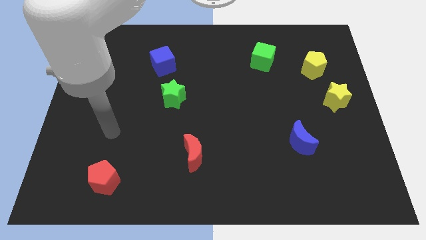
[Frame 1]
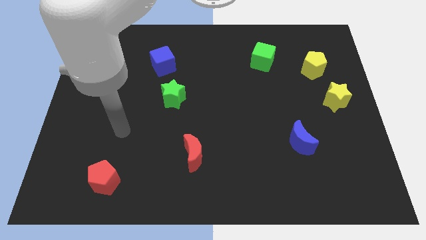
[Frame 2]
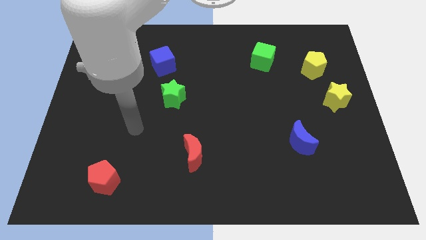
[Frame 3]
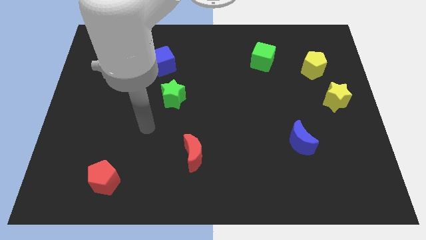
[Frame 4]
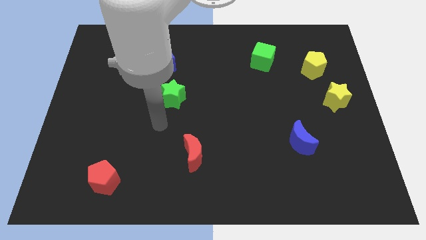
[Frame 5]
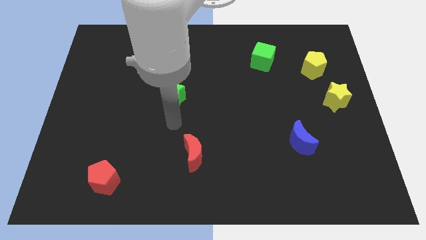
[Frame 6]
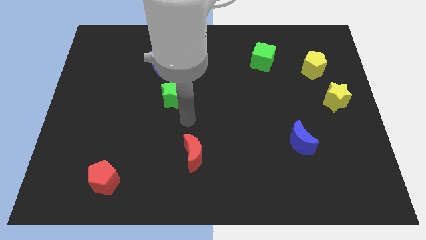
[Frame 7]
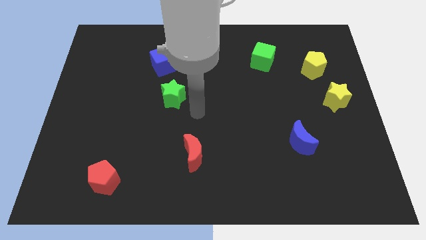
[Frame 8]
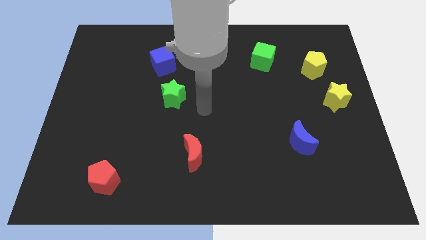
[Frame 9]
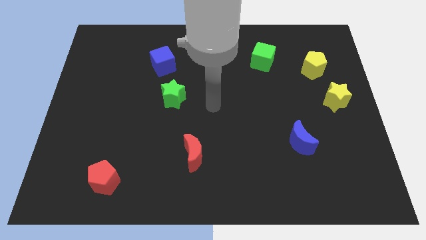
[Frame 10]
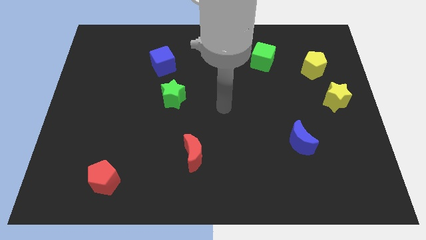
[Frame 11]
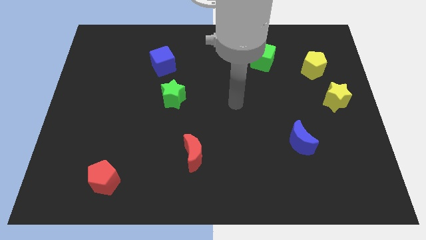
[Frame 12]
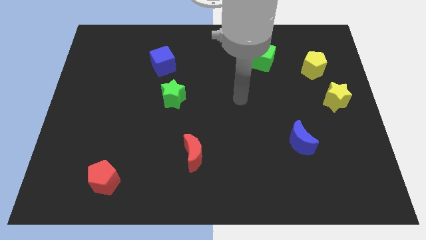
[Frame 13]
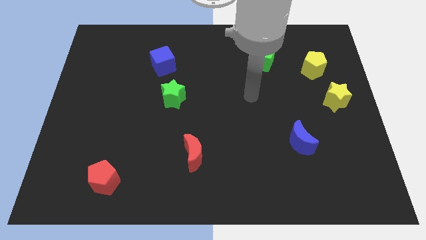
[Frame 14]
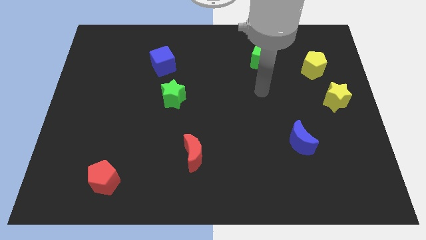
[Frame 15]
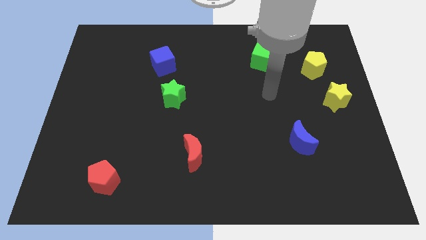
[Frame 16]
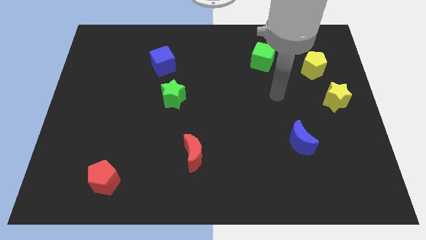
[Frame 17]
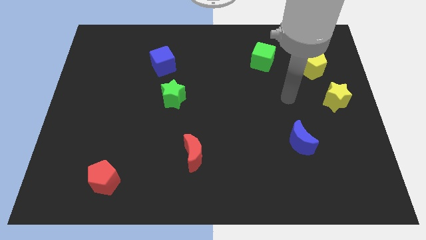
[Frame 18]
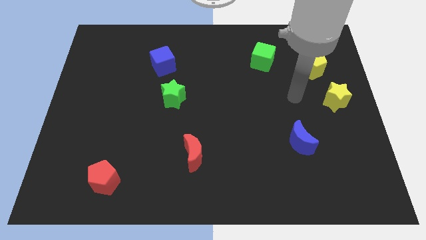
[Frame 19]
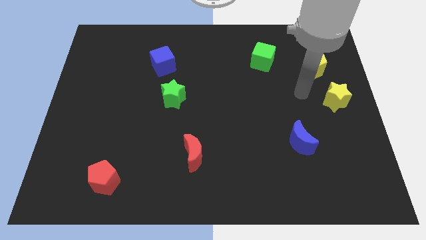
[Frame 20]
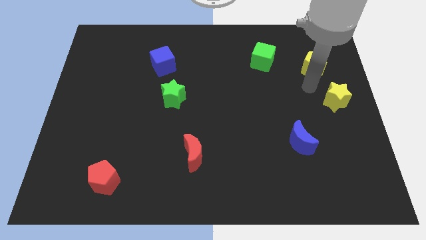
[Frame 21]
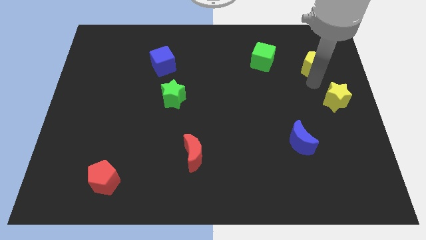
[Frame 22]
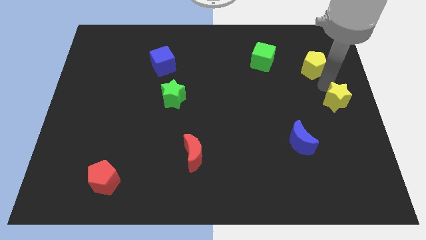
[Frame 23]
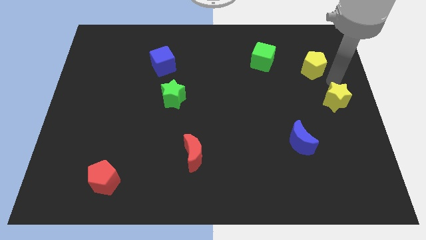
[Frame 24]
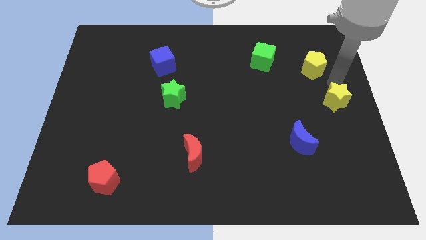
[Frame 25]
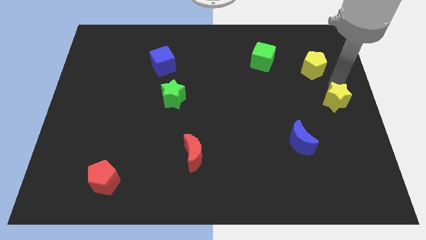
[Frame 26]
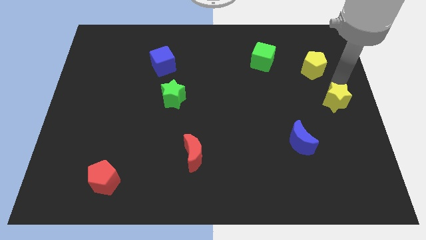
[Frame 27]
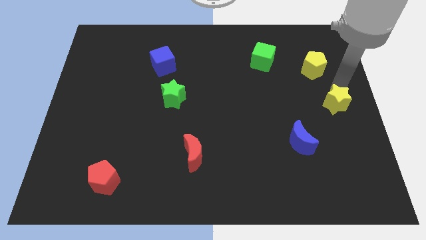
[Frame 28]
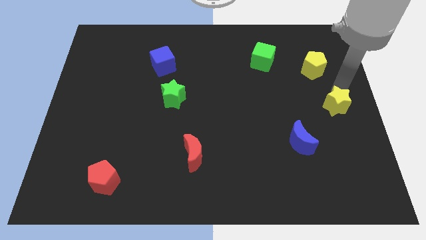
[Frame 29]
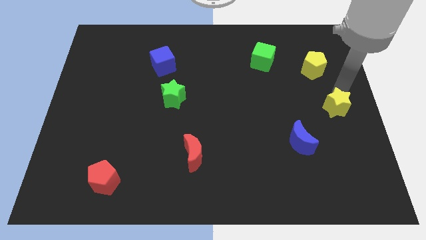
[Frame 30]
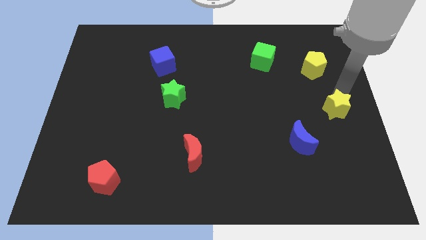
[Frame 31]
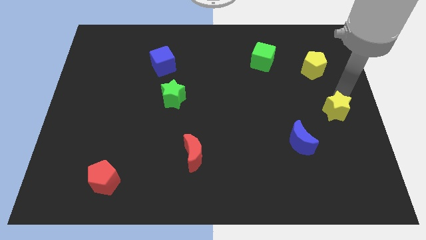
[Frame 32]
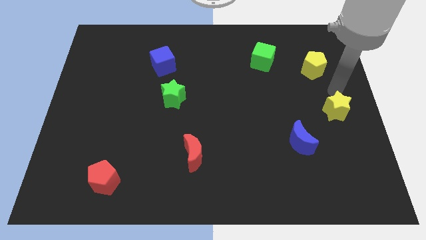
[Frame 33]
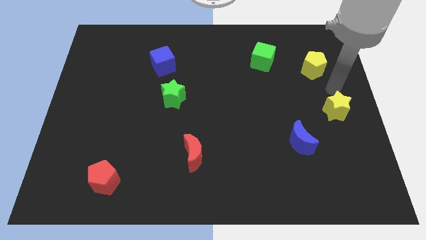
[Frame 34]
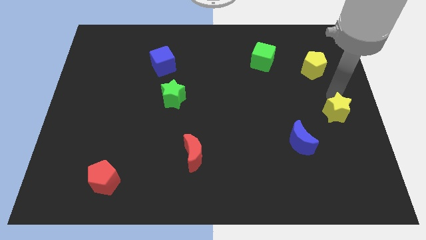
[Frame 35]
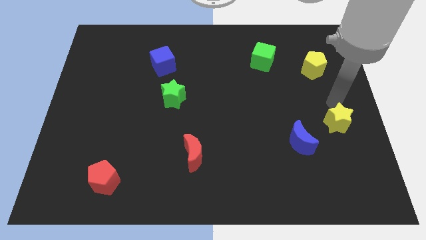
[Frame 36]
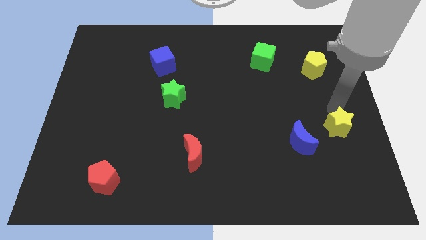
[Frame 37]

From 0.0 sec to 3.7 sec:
slightly slide the yellow star down

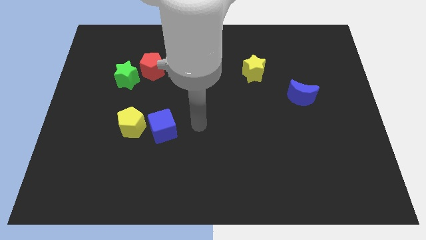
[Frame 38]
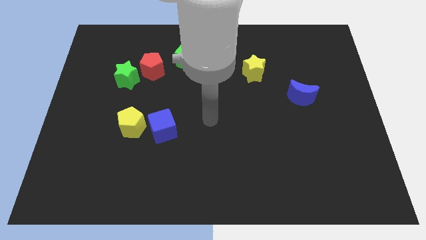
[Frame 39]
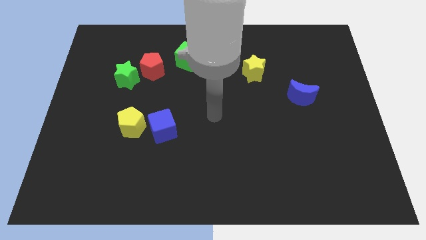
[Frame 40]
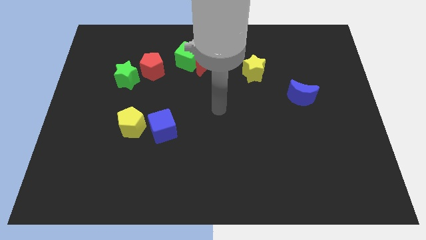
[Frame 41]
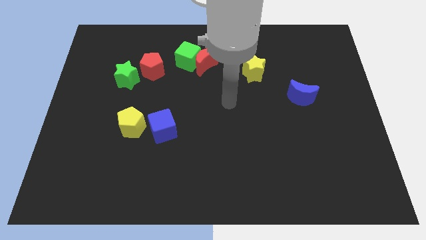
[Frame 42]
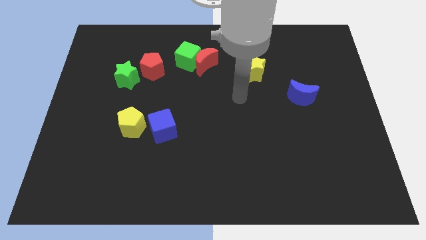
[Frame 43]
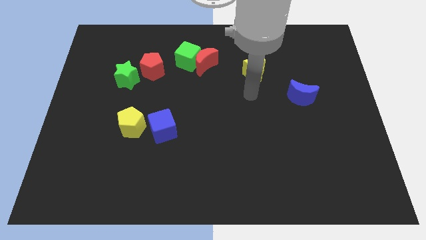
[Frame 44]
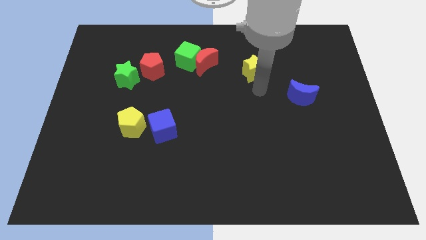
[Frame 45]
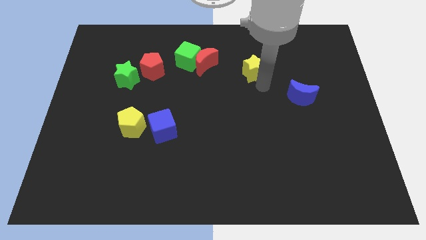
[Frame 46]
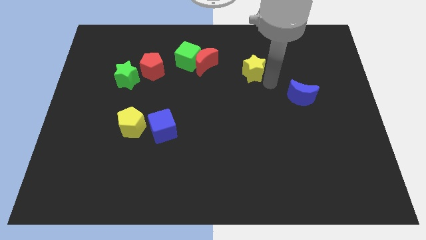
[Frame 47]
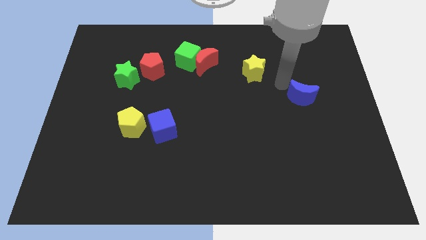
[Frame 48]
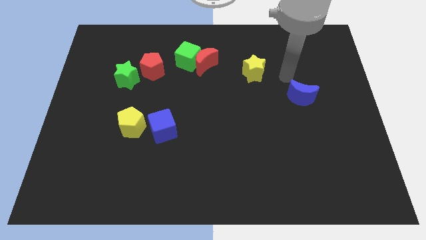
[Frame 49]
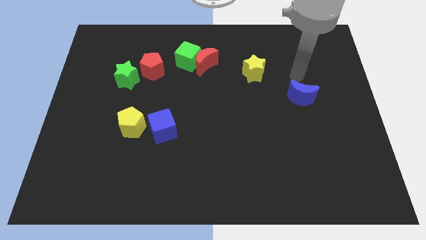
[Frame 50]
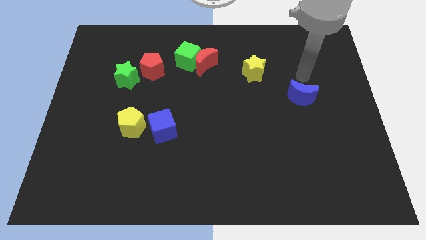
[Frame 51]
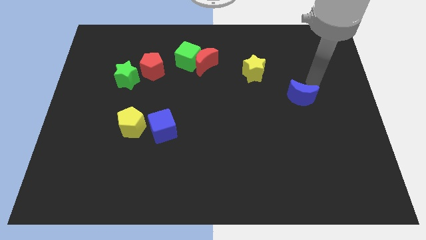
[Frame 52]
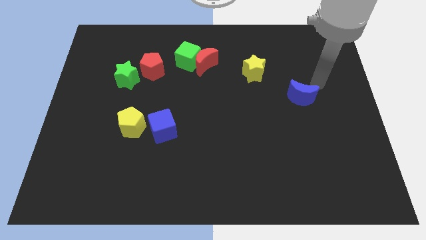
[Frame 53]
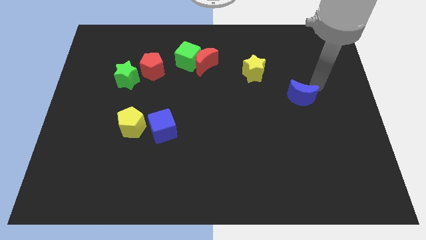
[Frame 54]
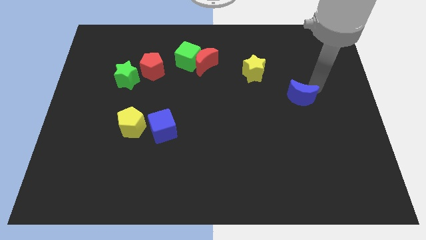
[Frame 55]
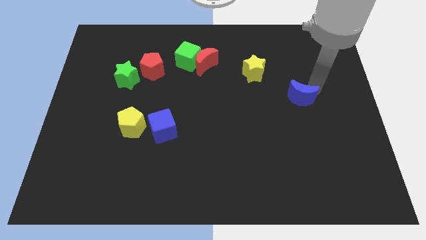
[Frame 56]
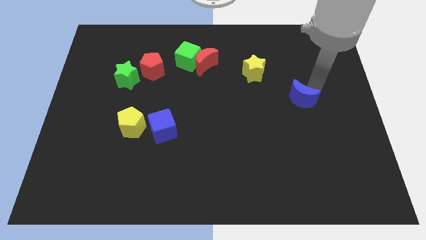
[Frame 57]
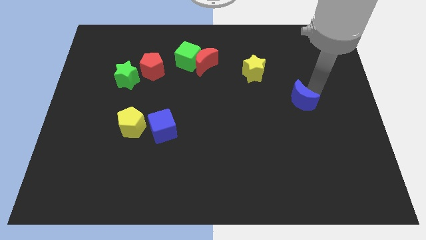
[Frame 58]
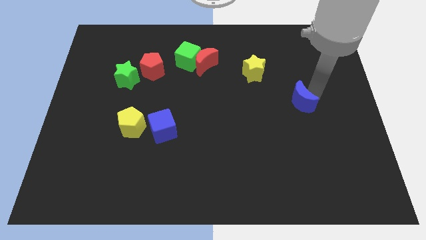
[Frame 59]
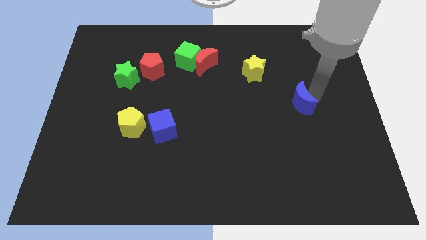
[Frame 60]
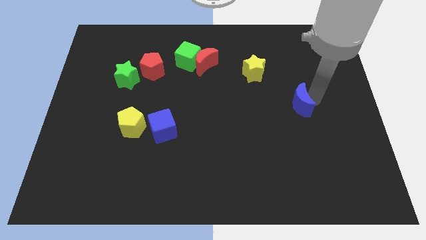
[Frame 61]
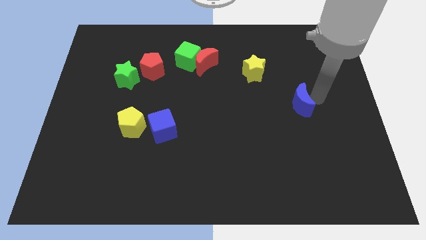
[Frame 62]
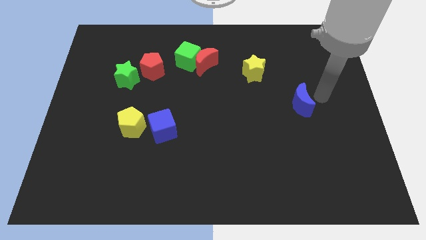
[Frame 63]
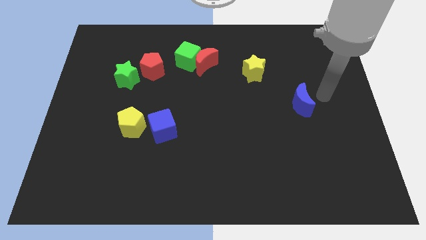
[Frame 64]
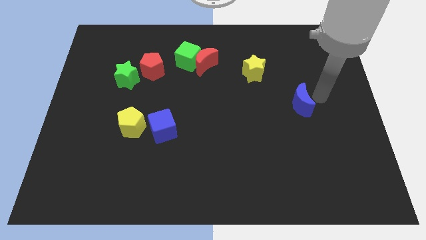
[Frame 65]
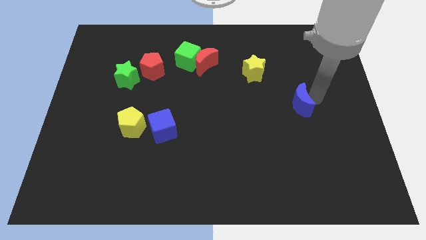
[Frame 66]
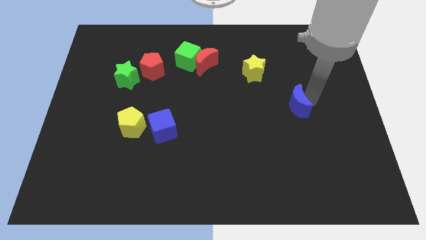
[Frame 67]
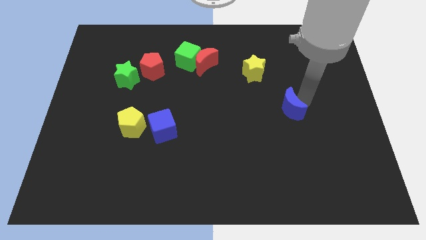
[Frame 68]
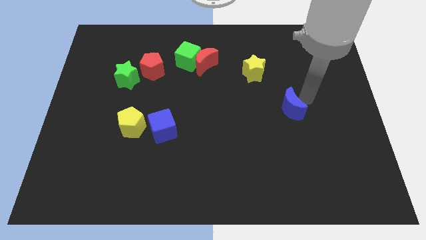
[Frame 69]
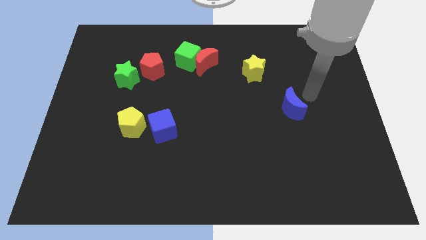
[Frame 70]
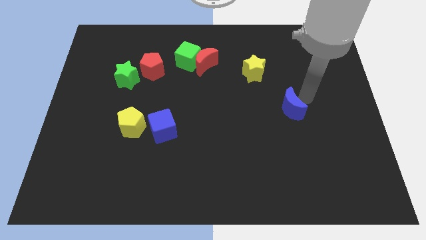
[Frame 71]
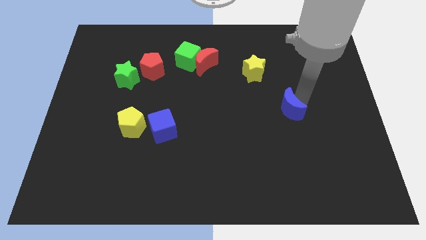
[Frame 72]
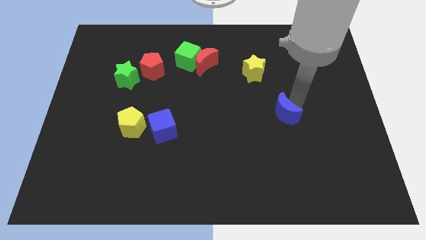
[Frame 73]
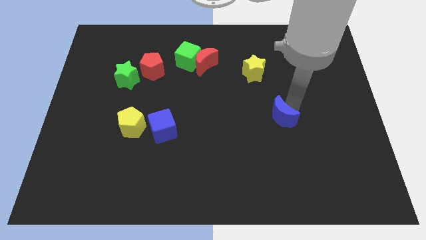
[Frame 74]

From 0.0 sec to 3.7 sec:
push the blue moon diagonally downwards and left somewhat

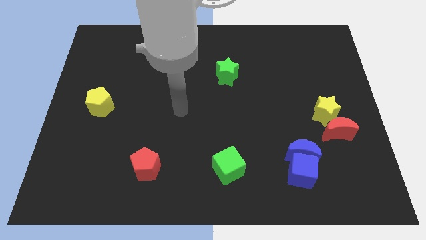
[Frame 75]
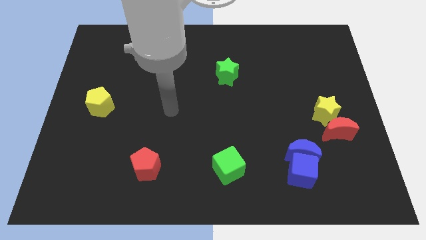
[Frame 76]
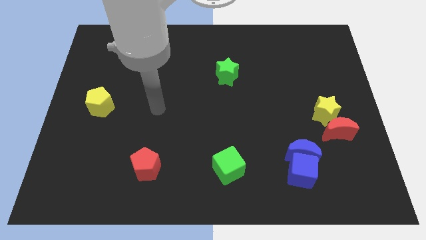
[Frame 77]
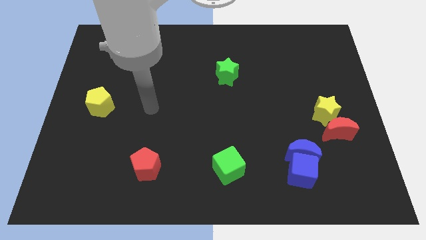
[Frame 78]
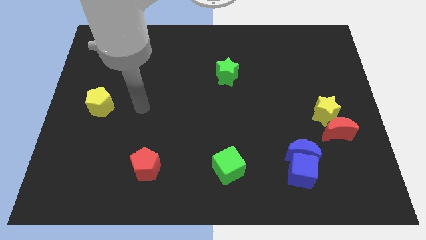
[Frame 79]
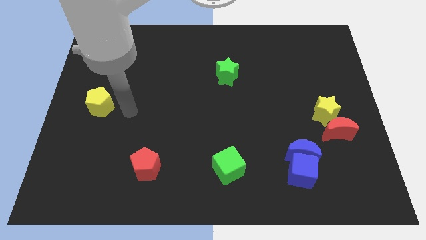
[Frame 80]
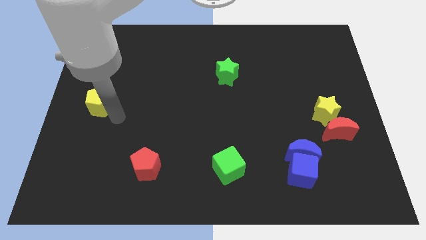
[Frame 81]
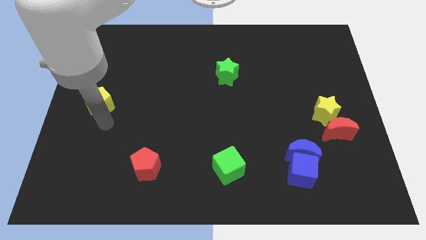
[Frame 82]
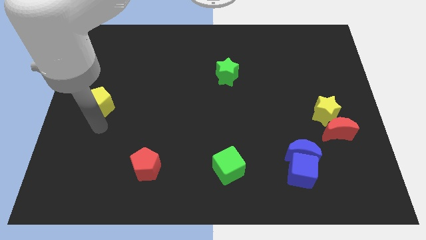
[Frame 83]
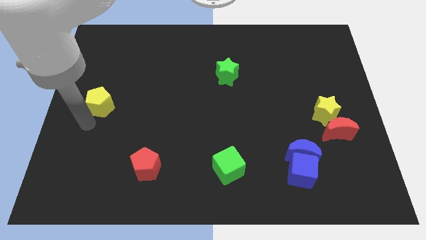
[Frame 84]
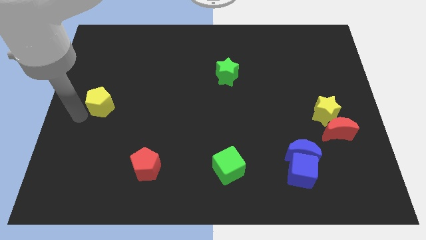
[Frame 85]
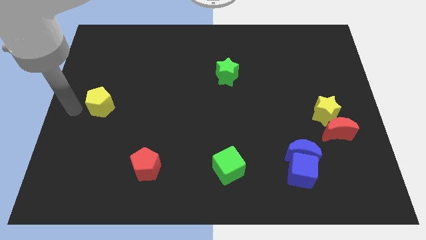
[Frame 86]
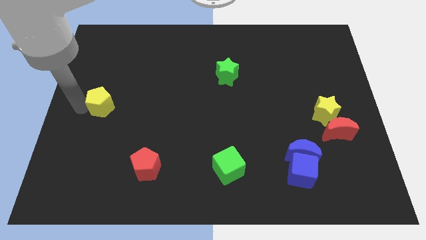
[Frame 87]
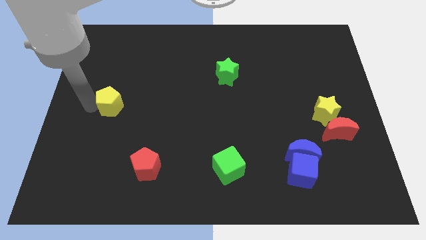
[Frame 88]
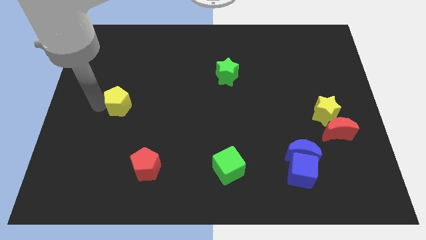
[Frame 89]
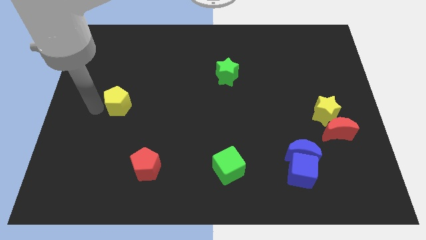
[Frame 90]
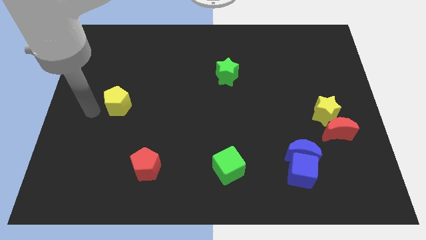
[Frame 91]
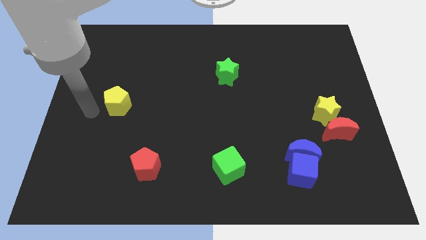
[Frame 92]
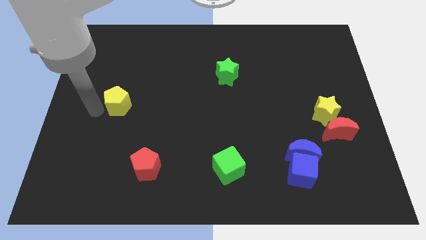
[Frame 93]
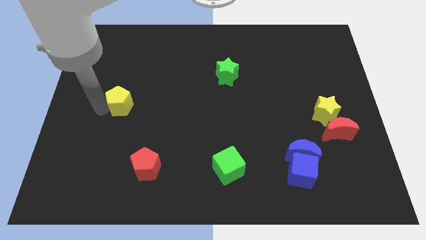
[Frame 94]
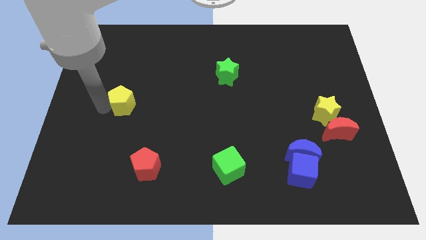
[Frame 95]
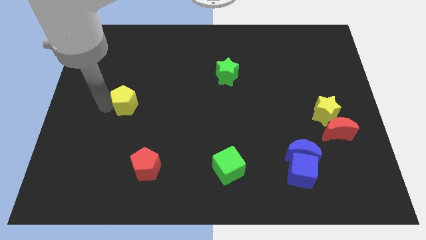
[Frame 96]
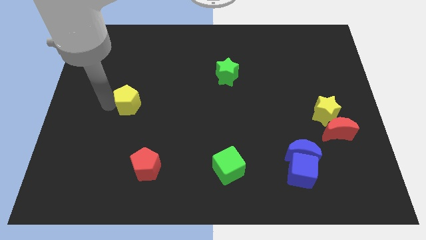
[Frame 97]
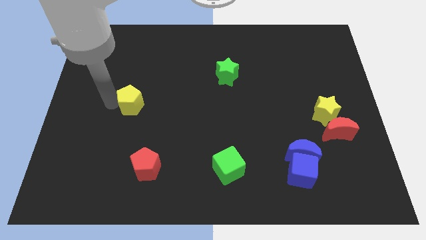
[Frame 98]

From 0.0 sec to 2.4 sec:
move the yellow pentagon to the right slightly
